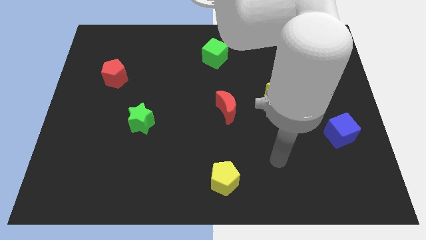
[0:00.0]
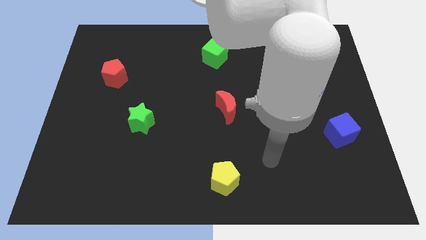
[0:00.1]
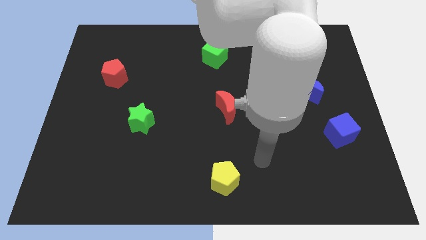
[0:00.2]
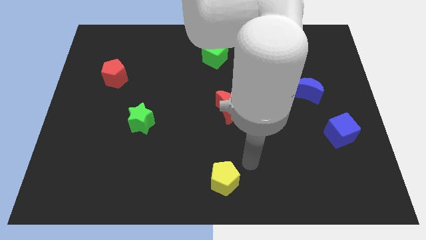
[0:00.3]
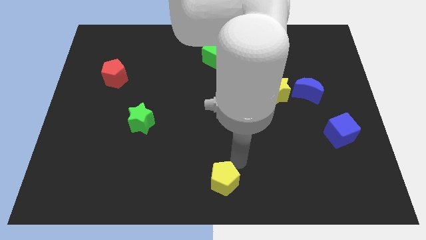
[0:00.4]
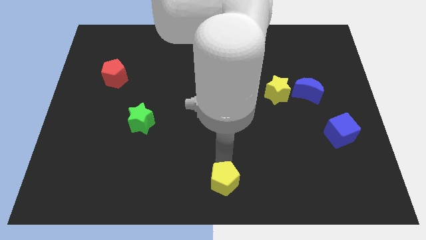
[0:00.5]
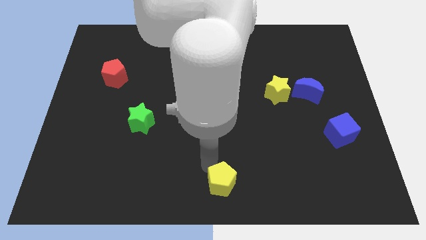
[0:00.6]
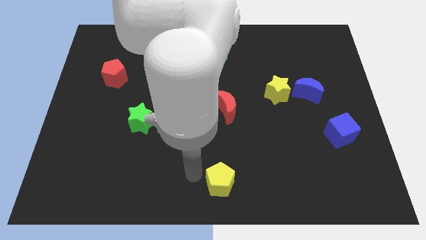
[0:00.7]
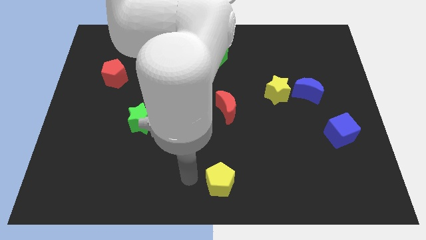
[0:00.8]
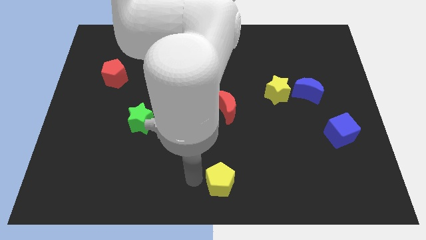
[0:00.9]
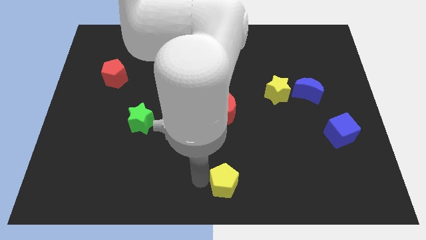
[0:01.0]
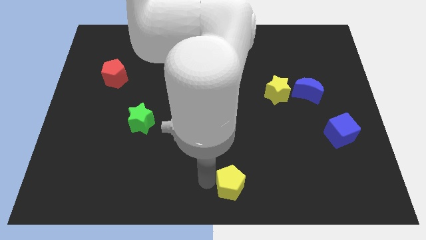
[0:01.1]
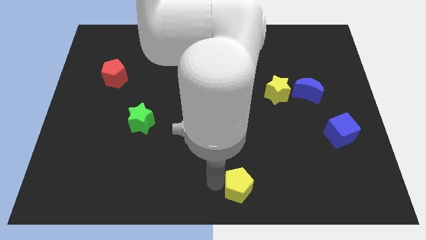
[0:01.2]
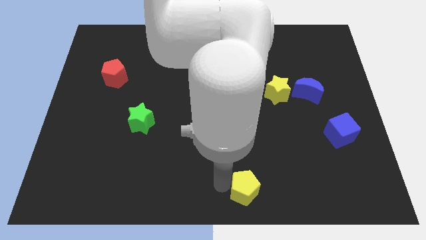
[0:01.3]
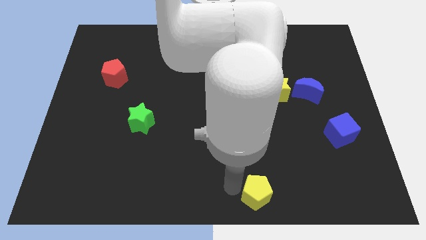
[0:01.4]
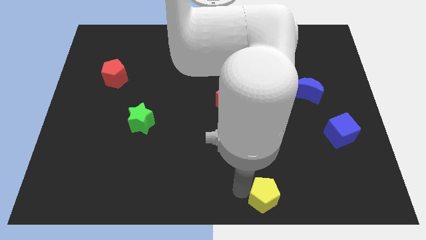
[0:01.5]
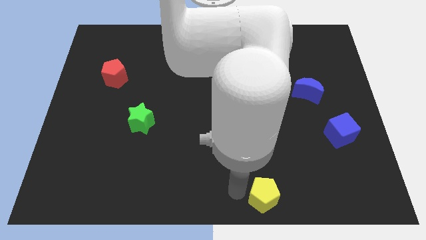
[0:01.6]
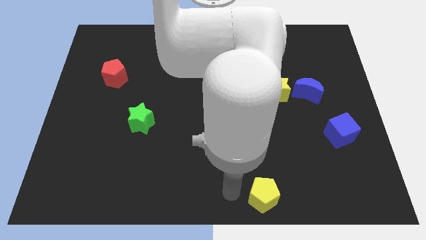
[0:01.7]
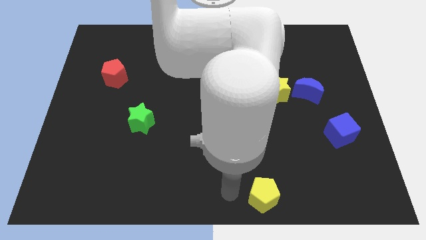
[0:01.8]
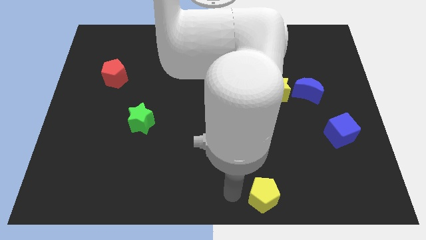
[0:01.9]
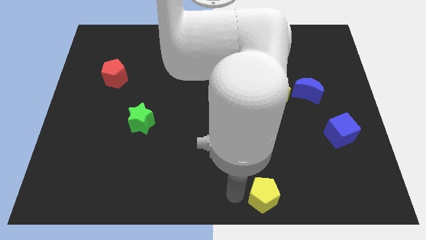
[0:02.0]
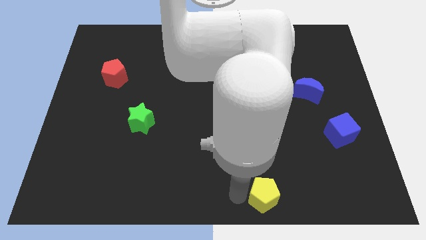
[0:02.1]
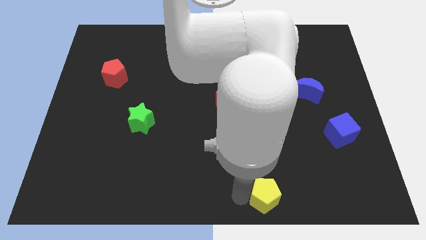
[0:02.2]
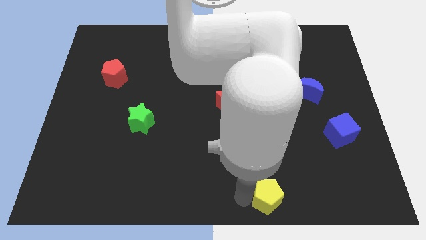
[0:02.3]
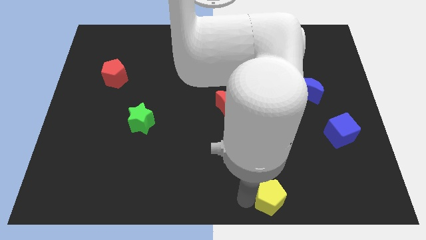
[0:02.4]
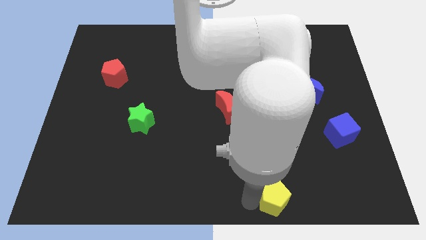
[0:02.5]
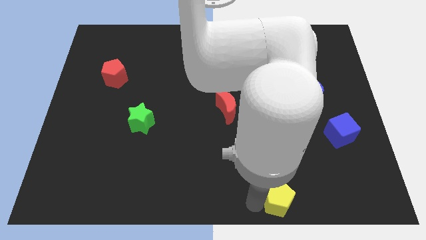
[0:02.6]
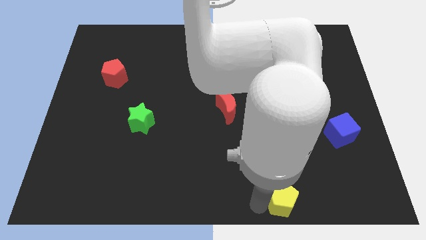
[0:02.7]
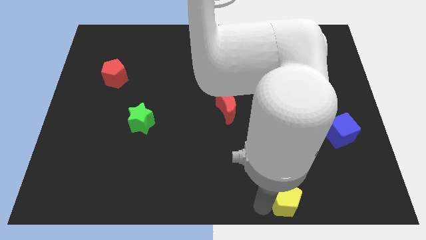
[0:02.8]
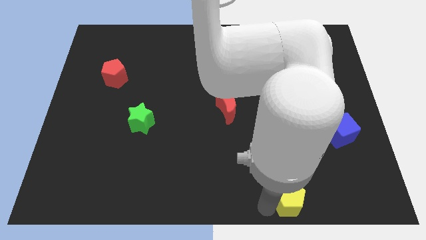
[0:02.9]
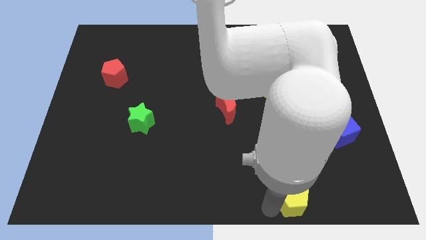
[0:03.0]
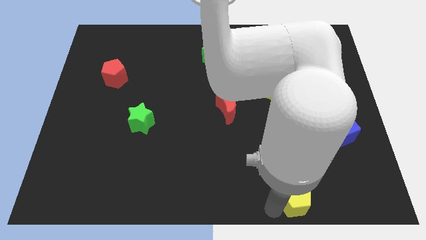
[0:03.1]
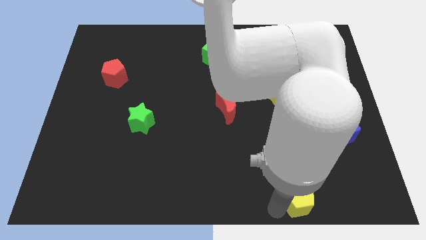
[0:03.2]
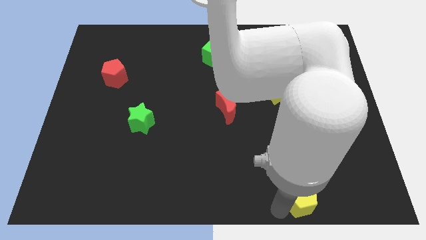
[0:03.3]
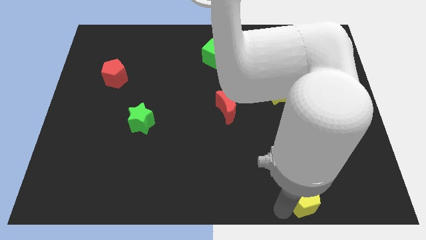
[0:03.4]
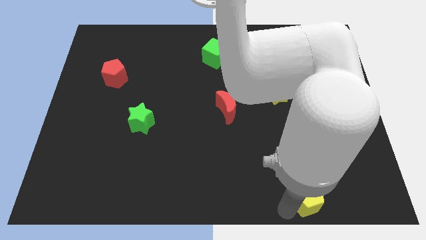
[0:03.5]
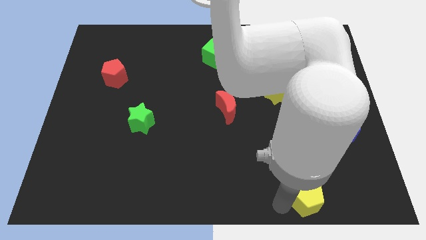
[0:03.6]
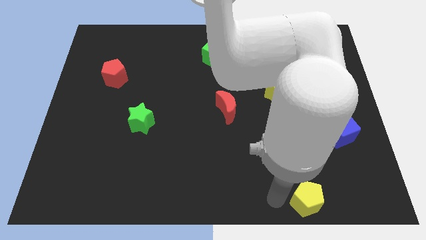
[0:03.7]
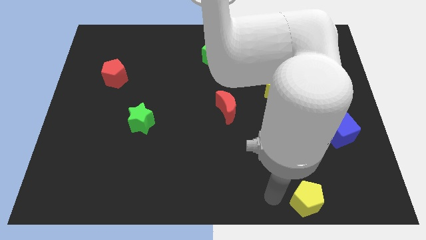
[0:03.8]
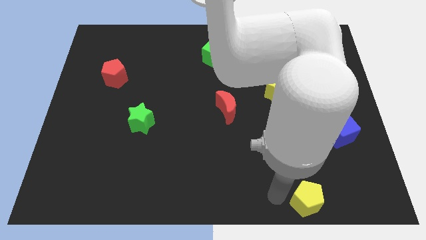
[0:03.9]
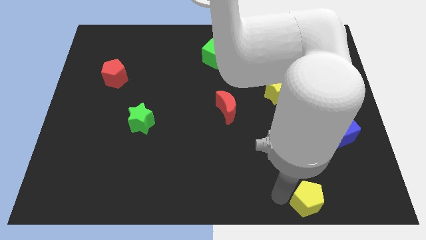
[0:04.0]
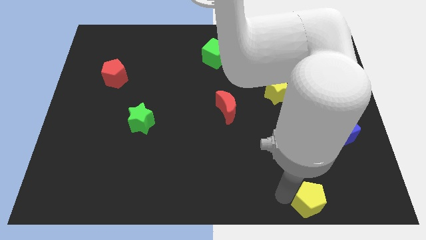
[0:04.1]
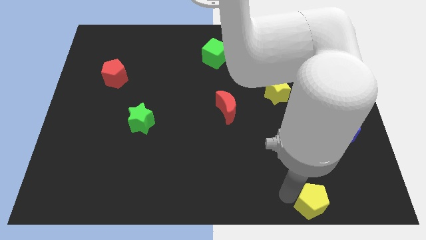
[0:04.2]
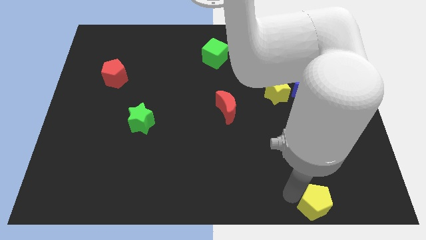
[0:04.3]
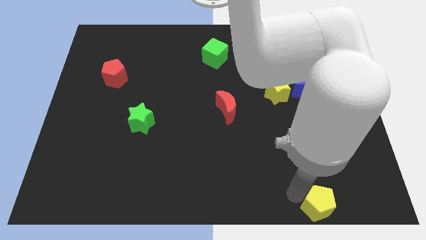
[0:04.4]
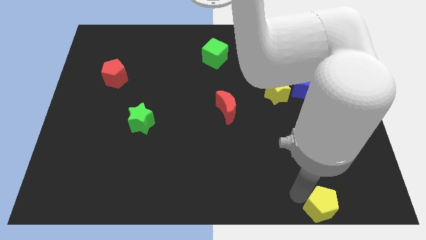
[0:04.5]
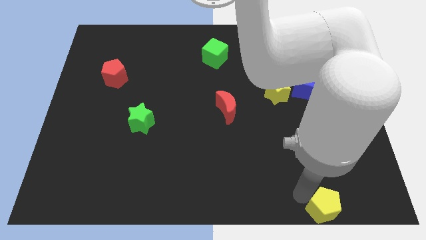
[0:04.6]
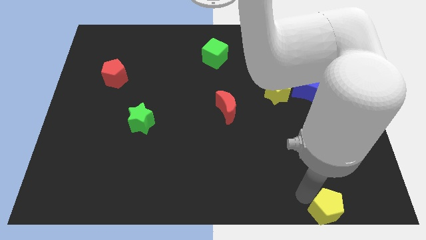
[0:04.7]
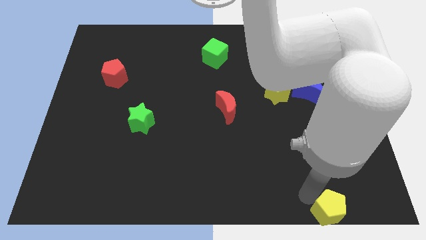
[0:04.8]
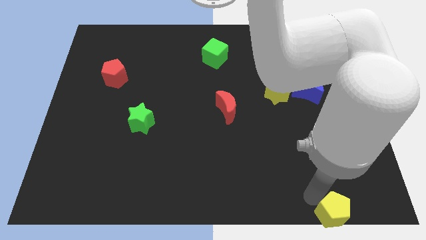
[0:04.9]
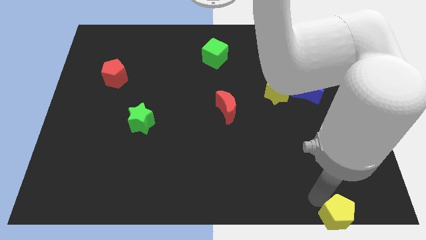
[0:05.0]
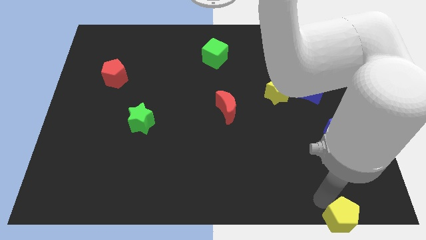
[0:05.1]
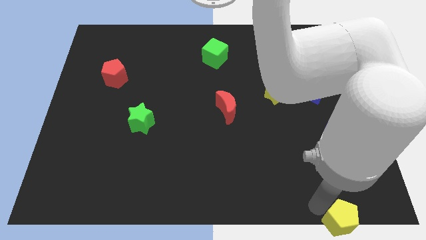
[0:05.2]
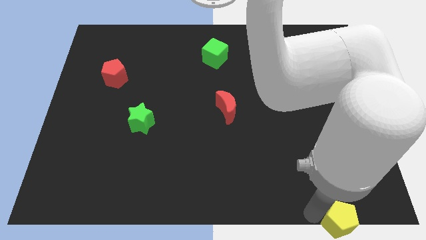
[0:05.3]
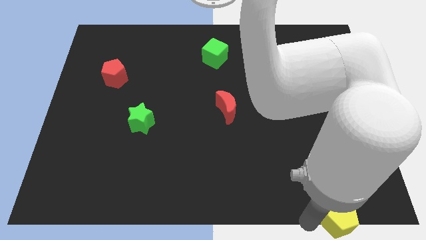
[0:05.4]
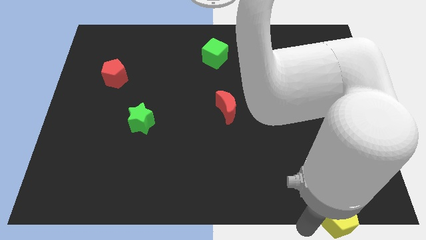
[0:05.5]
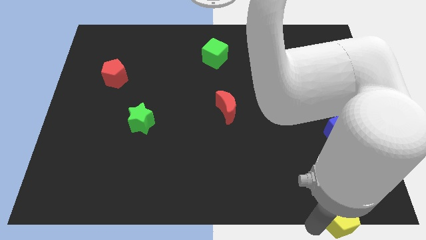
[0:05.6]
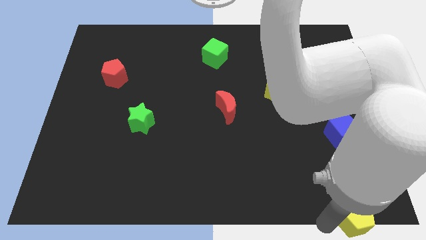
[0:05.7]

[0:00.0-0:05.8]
put the yellow pentagon to the lower right corner
